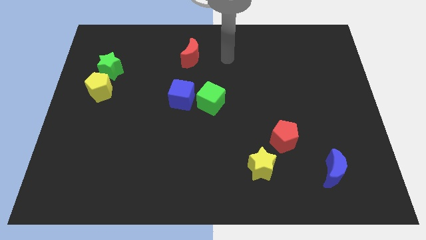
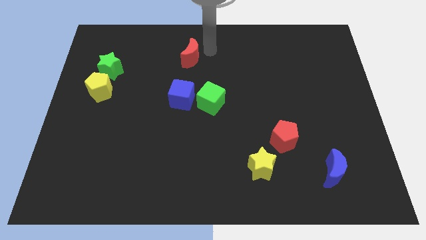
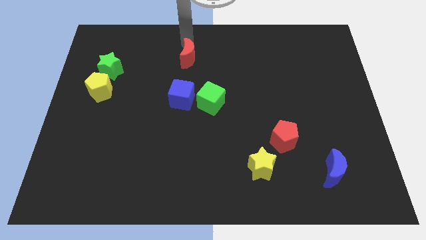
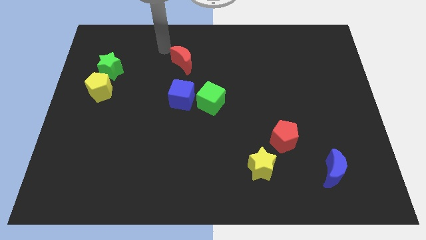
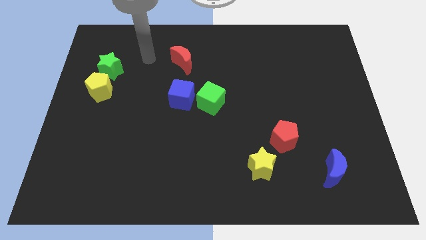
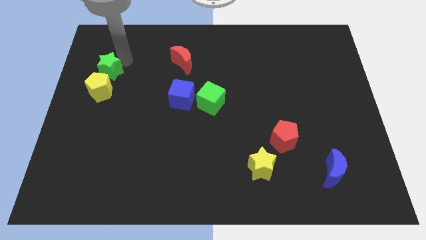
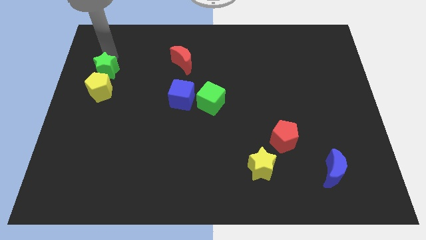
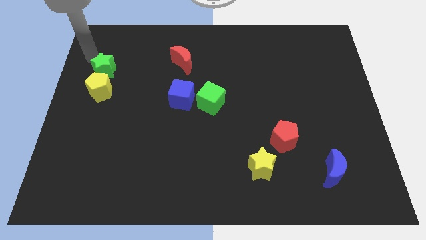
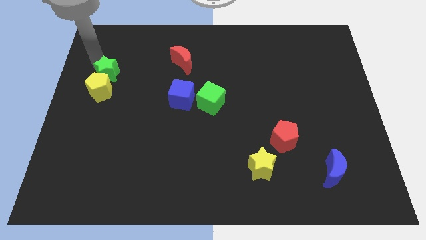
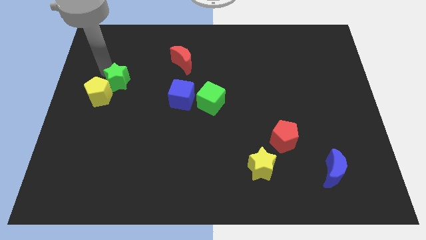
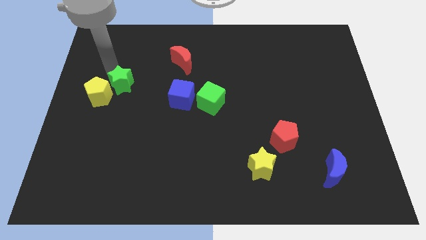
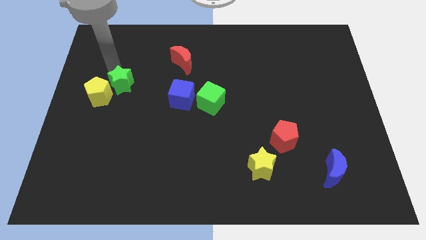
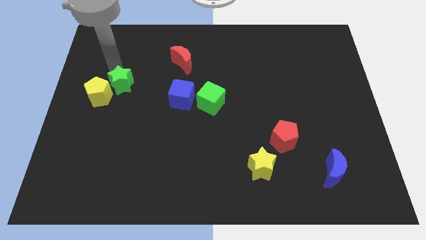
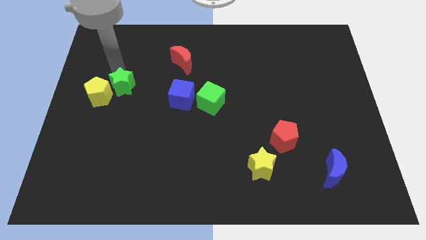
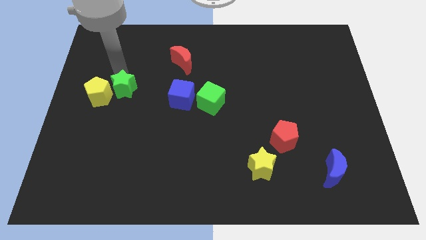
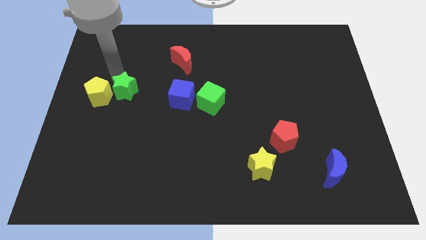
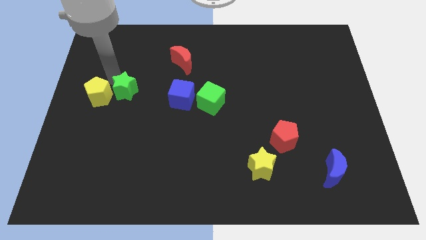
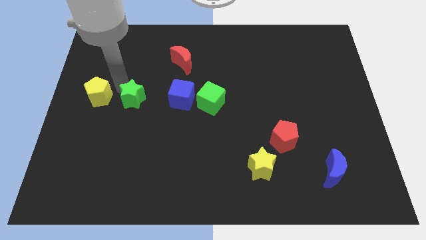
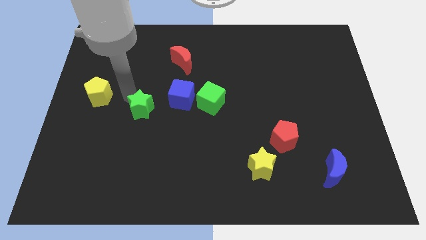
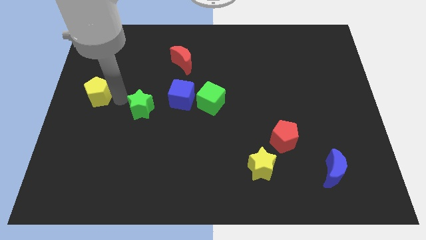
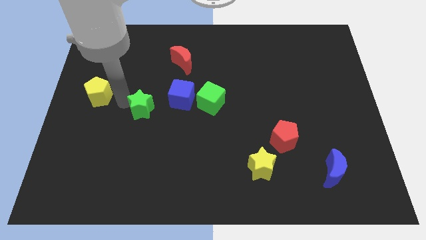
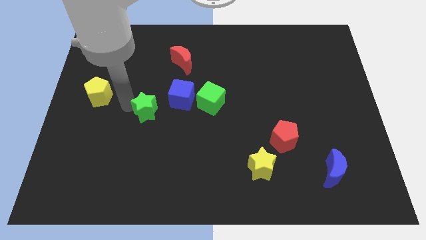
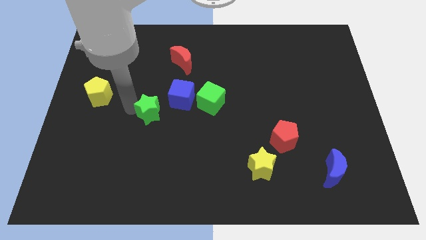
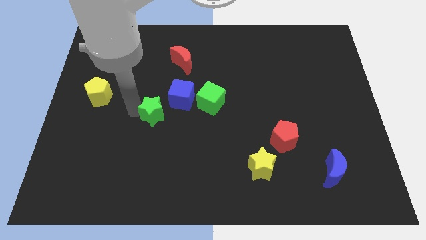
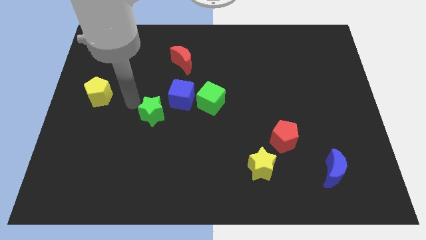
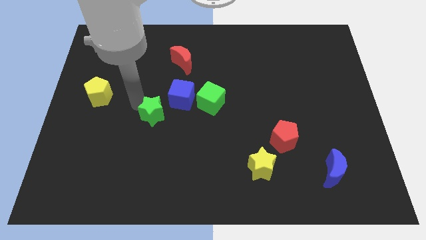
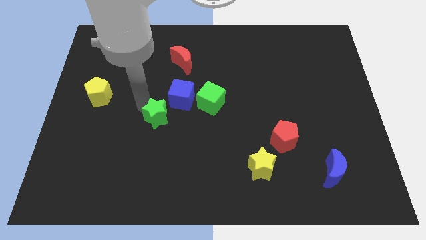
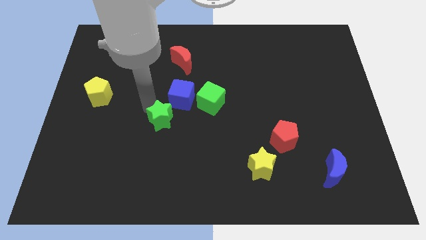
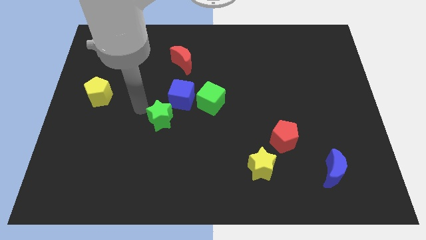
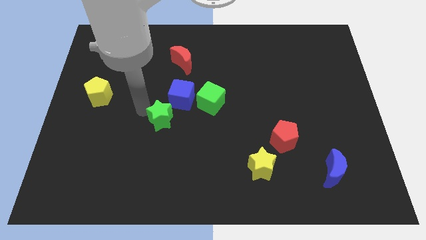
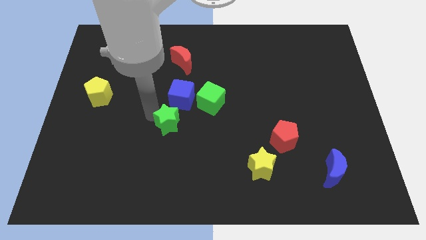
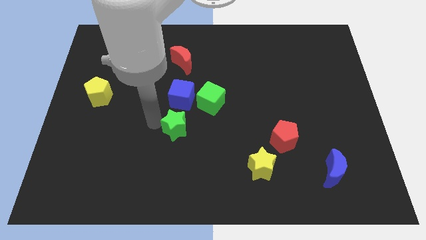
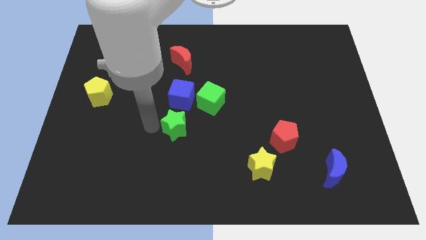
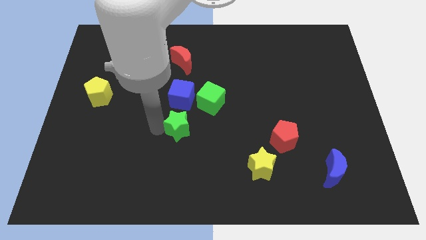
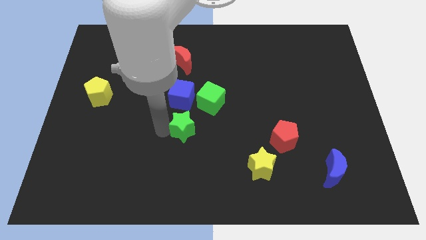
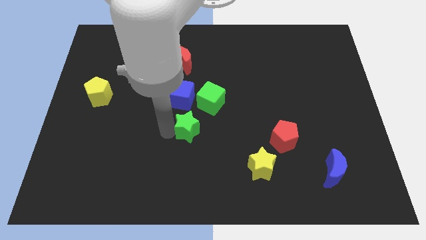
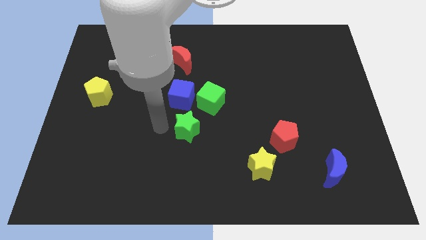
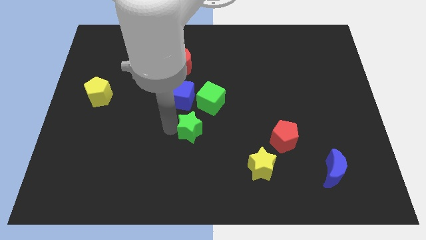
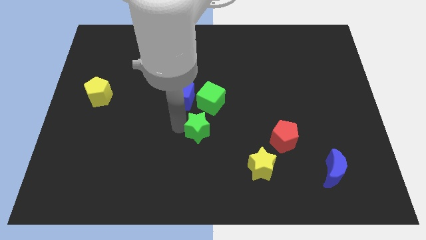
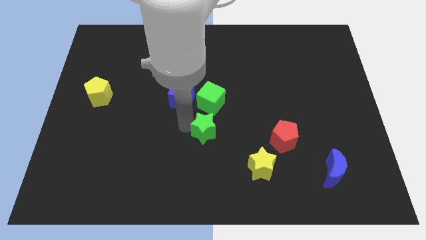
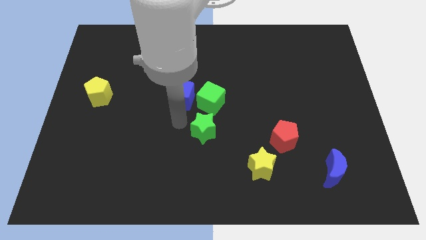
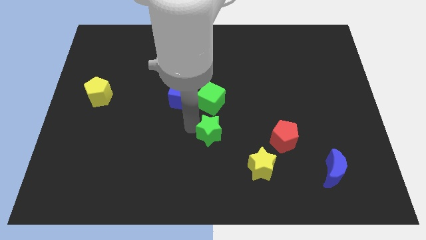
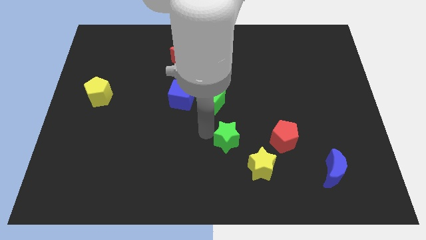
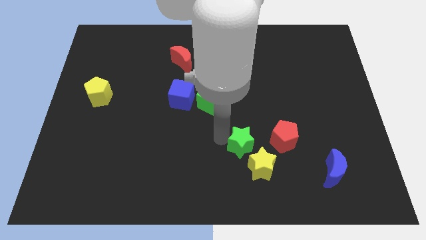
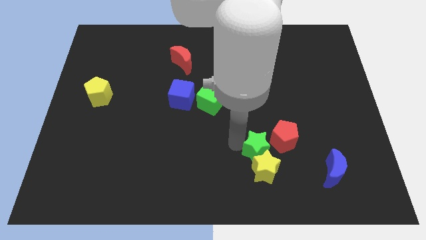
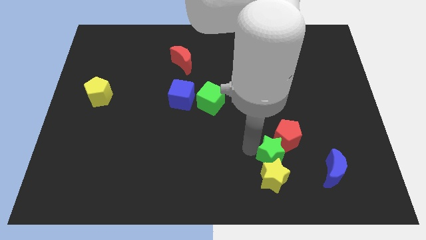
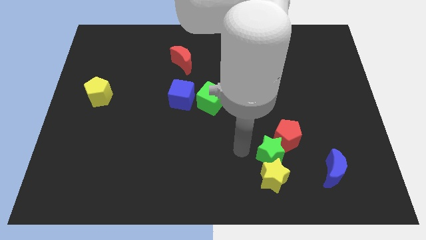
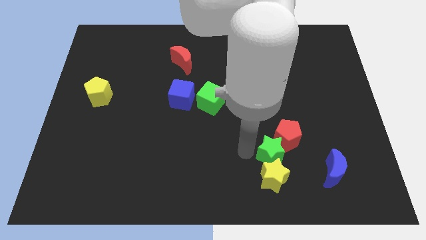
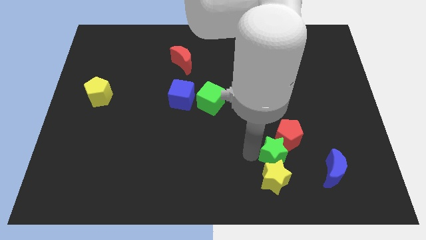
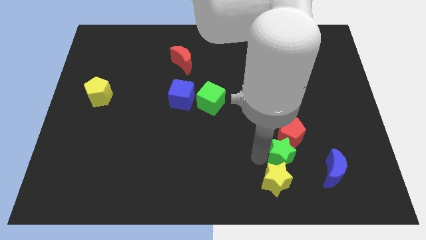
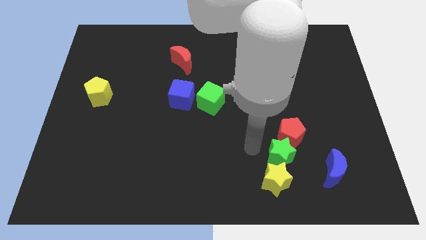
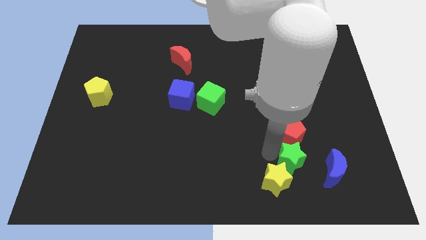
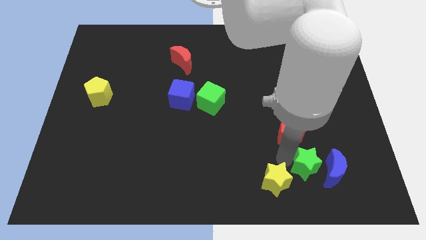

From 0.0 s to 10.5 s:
push the green star next to the blue moon
